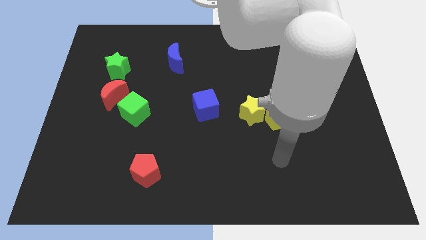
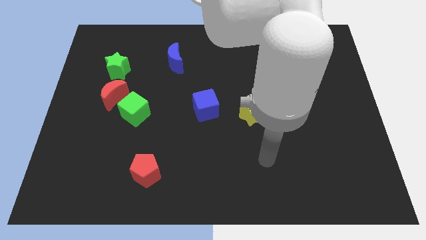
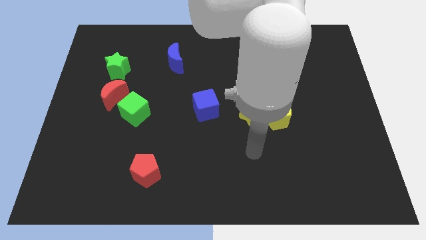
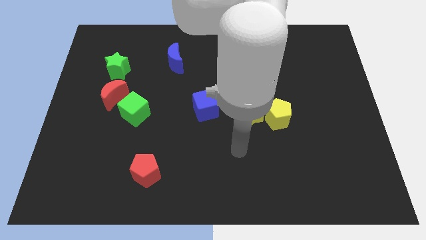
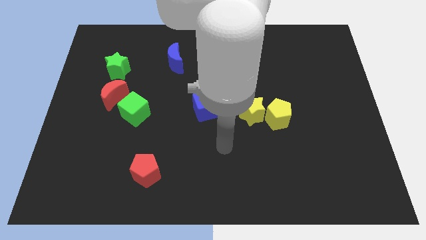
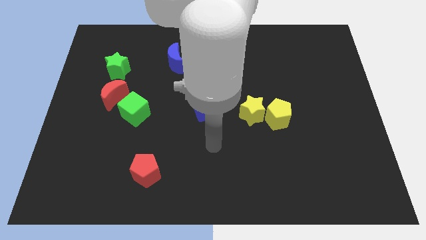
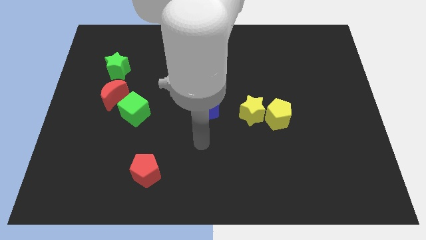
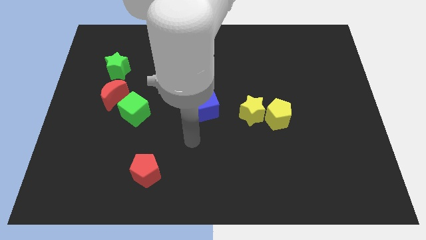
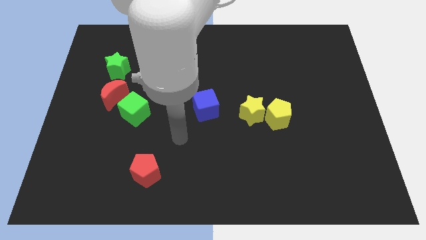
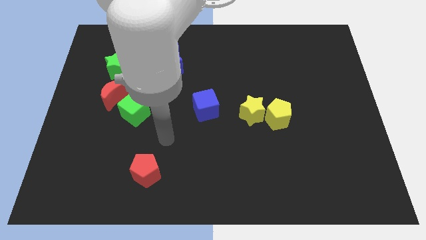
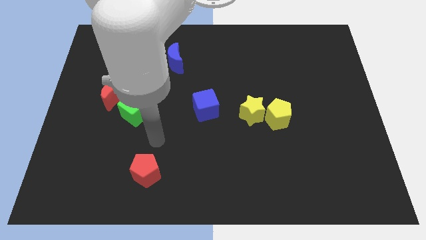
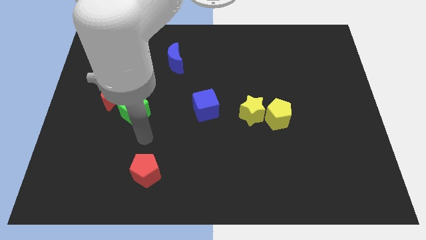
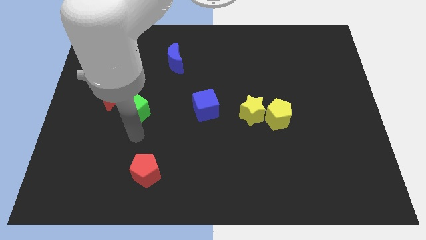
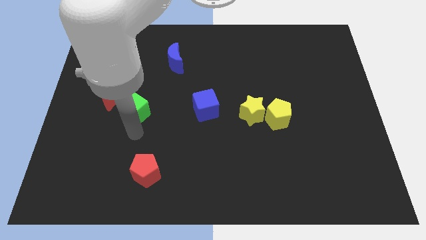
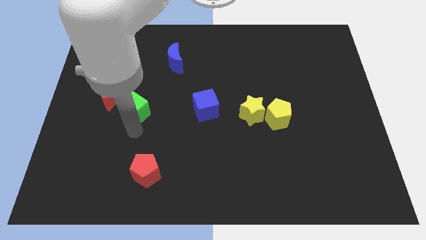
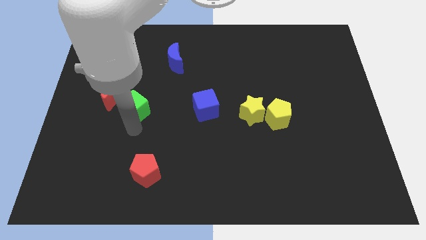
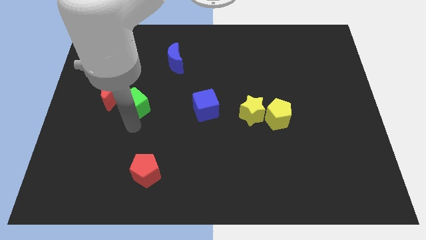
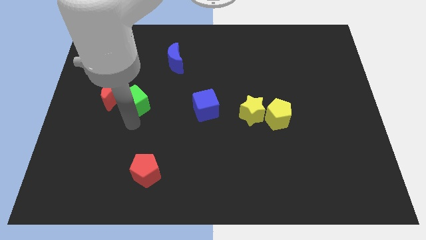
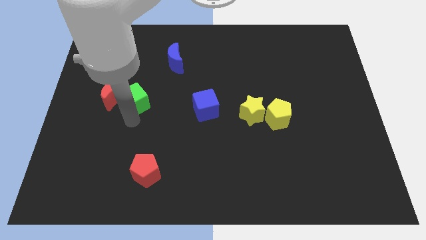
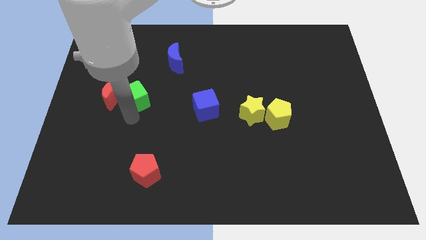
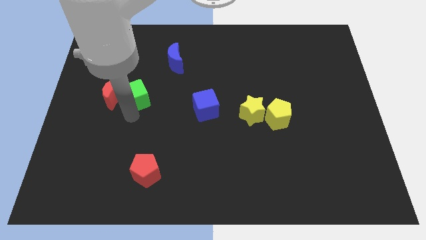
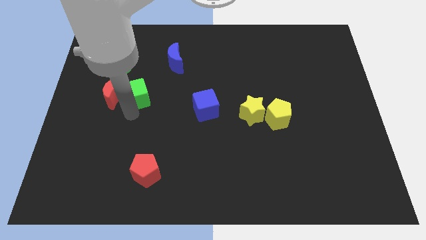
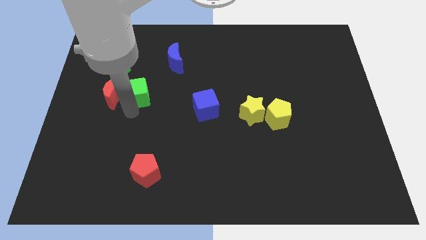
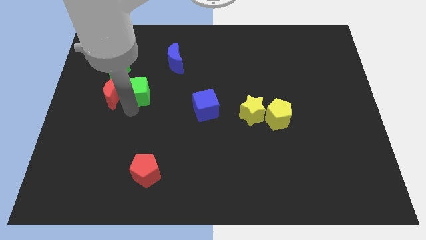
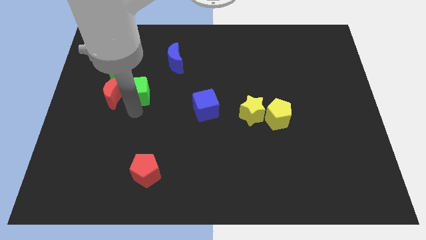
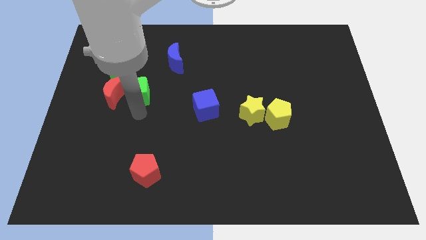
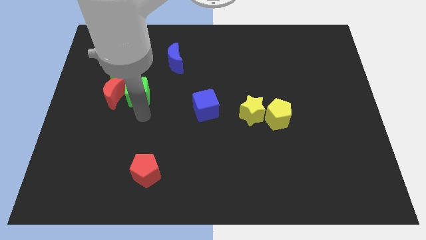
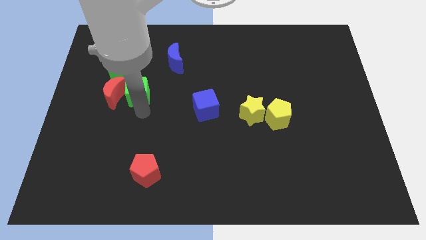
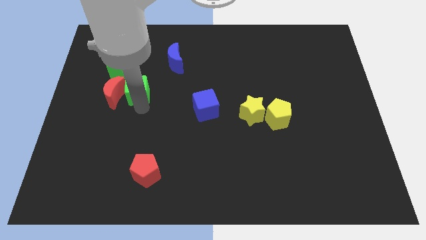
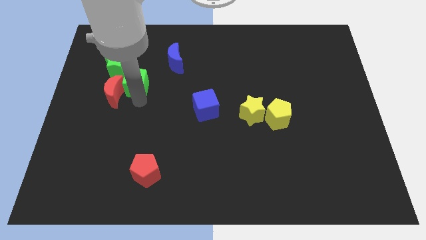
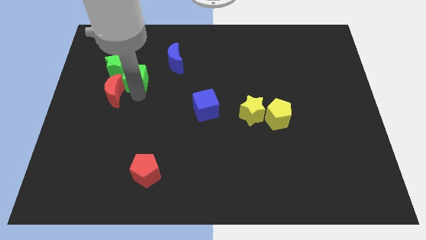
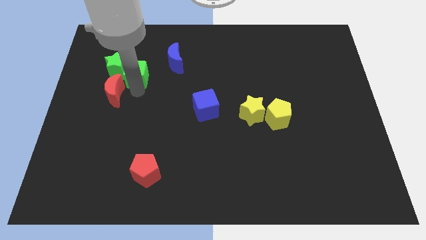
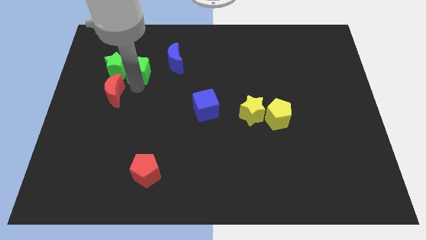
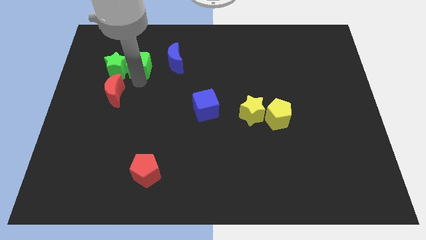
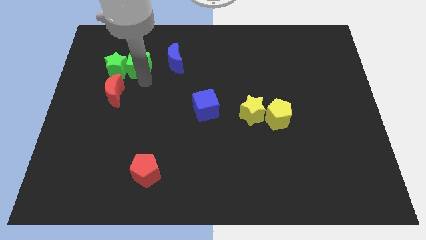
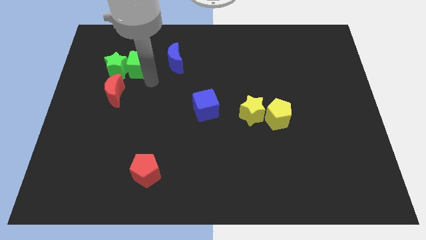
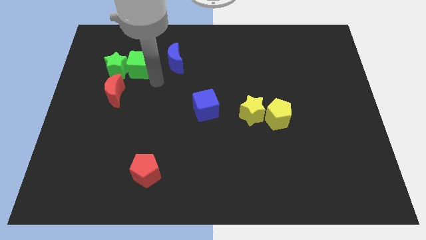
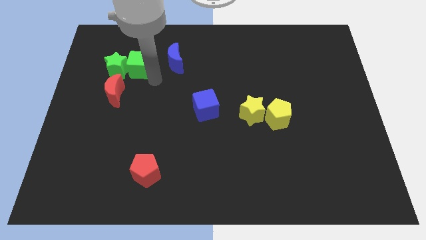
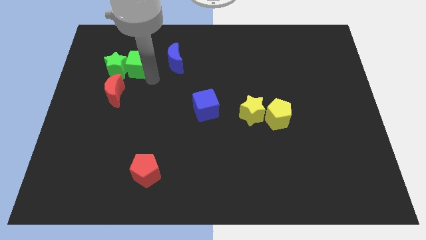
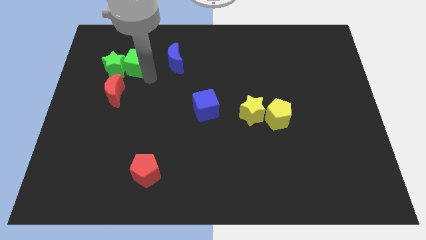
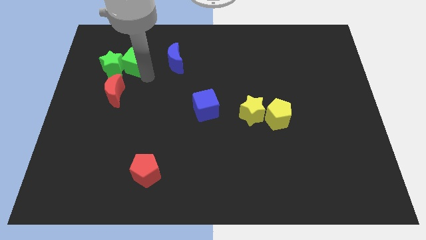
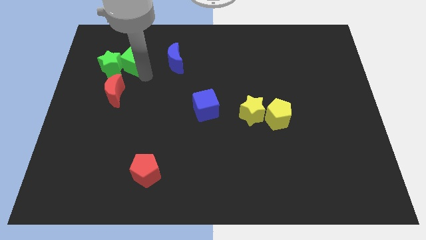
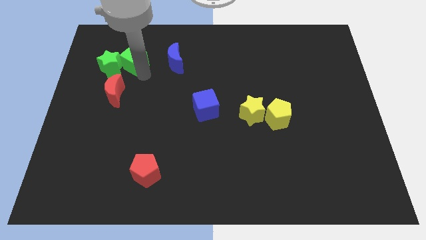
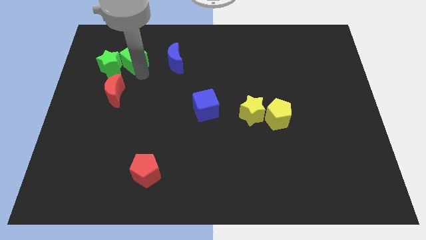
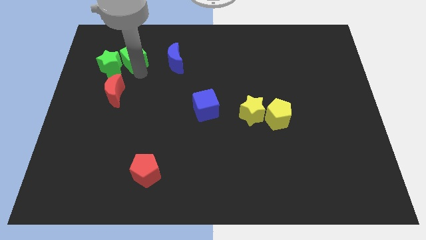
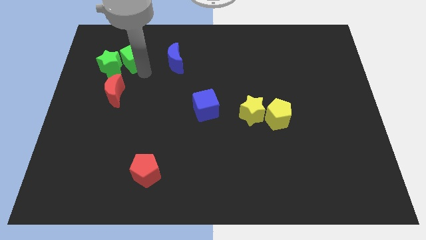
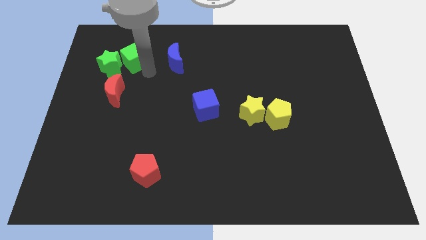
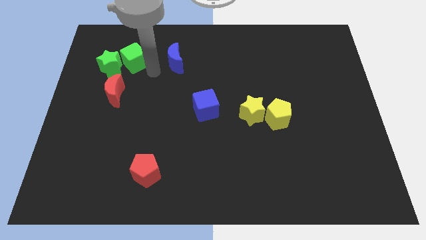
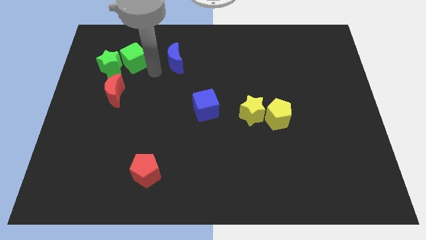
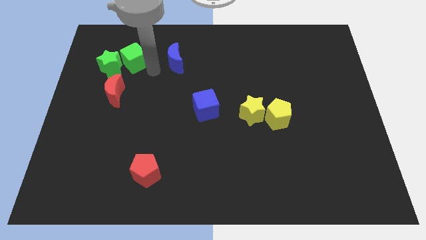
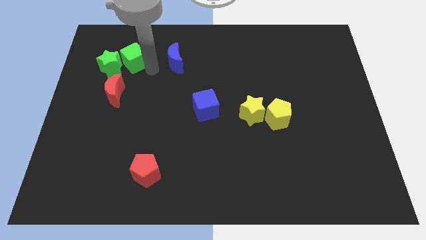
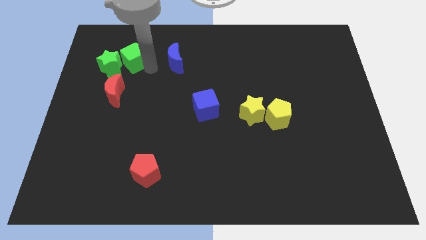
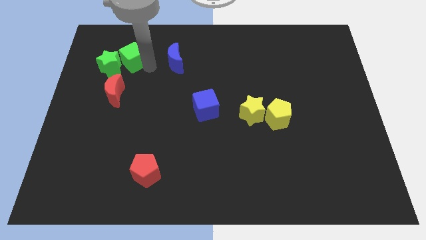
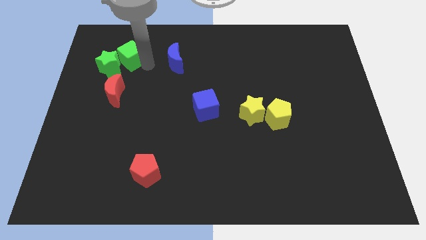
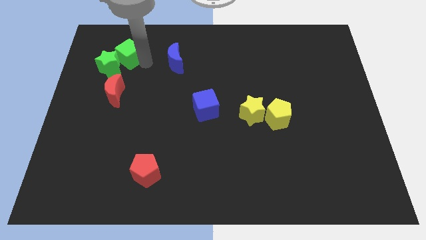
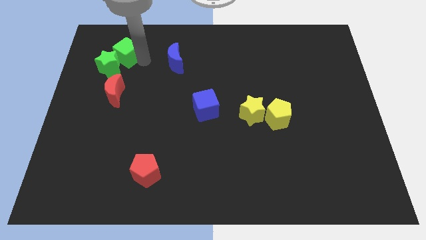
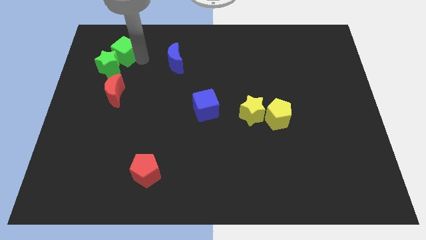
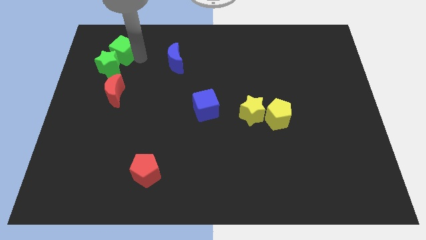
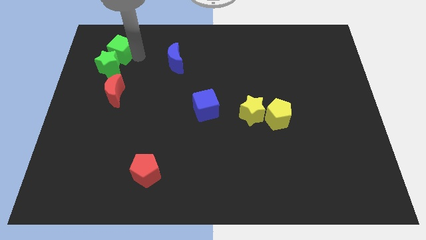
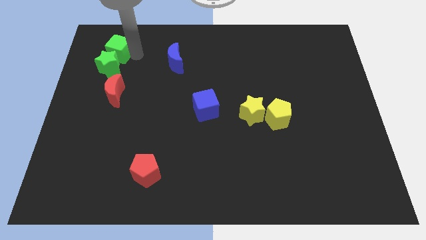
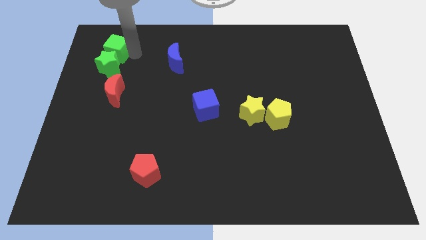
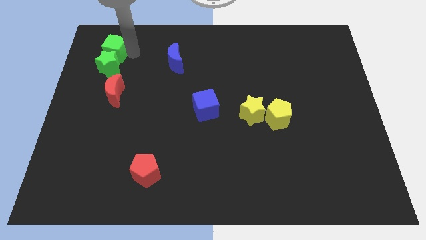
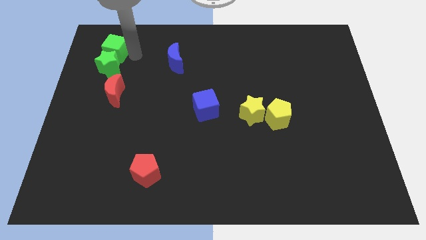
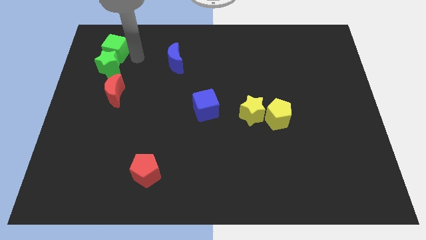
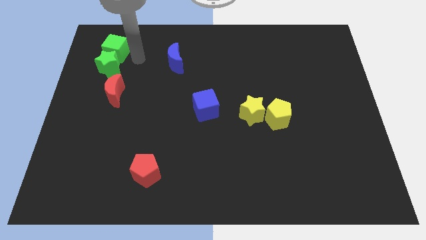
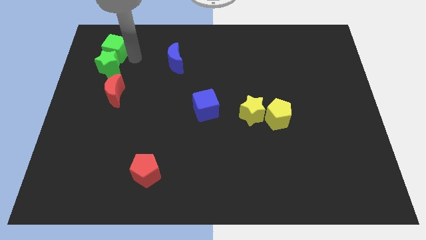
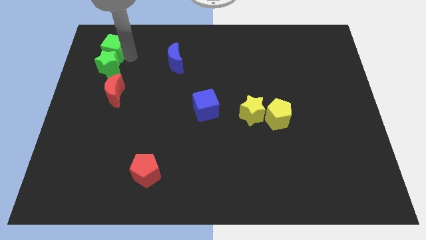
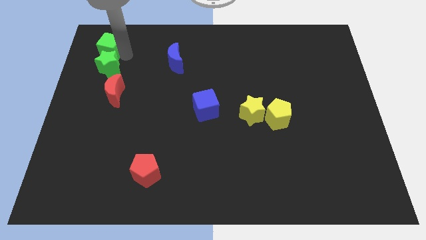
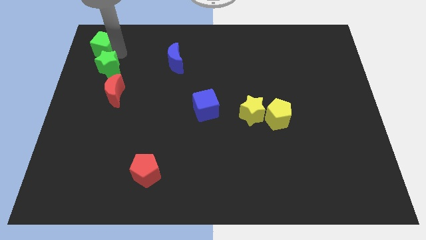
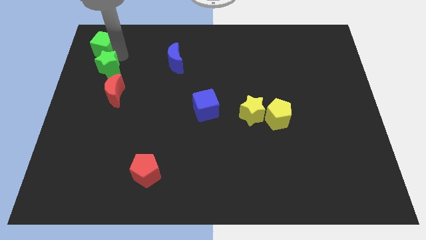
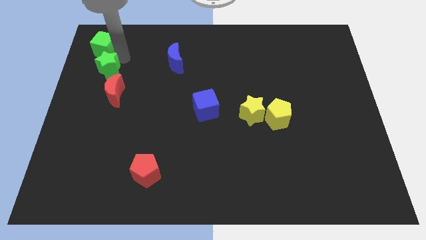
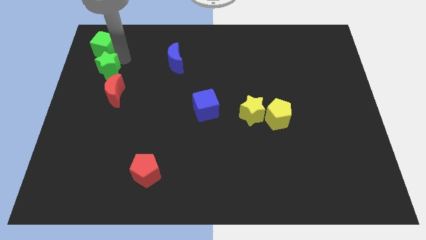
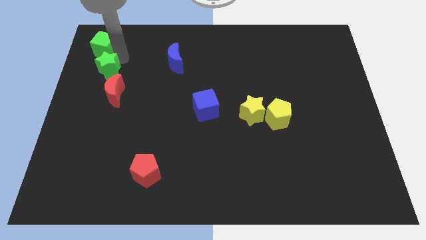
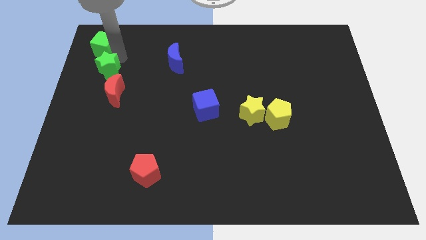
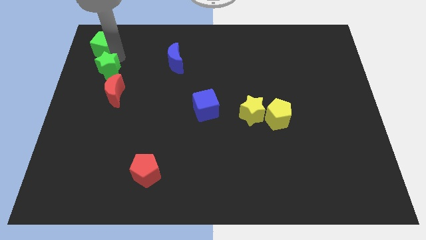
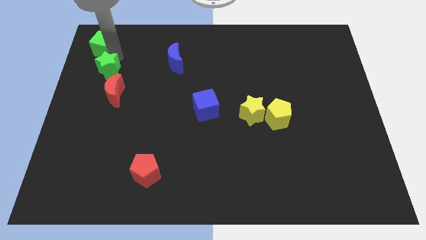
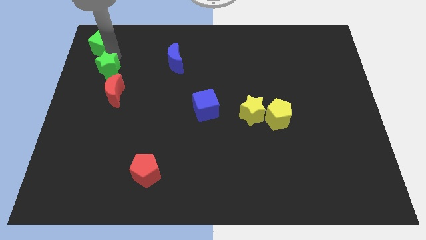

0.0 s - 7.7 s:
put the green cube to the top left
